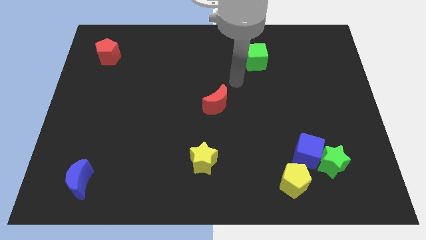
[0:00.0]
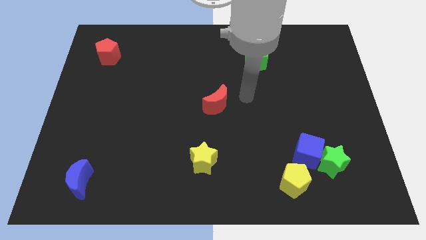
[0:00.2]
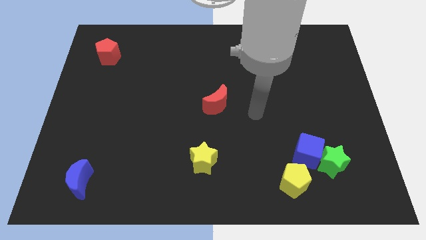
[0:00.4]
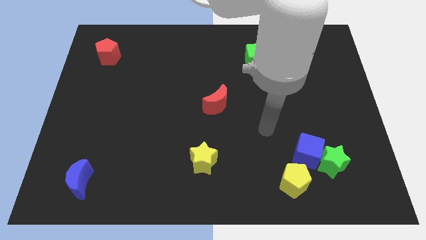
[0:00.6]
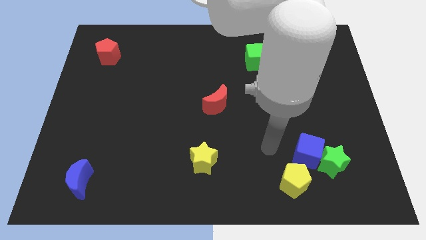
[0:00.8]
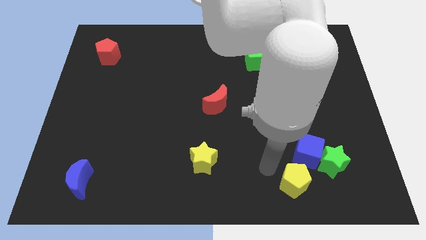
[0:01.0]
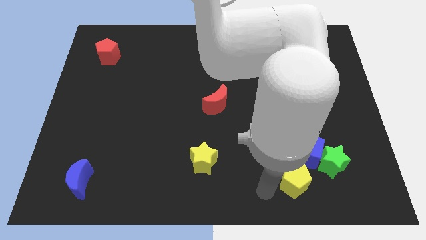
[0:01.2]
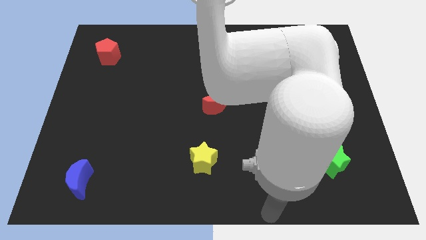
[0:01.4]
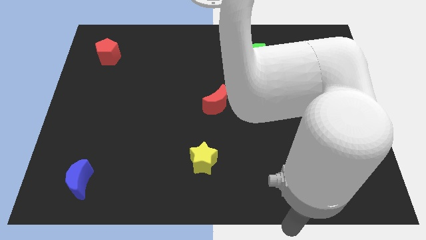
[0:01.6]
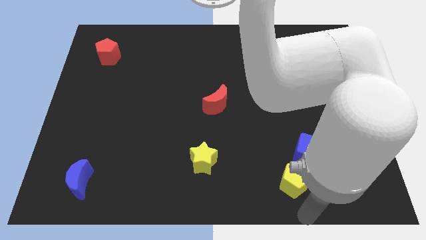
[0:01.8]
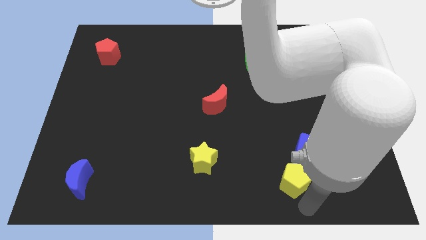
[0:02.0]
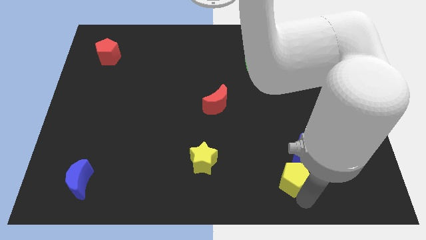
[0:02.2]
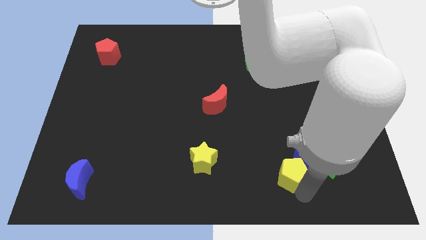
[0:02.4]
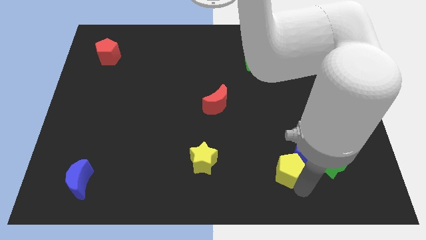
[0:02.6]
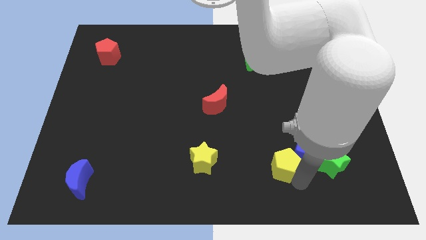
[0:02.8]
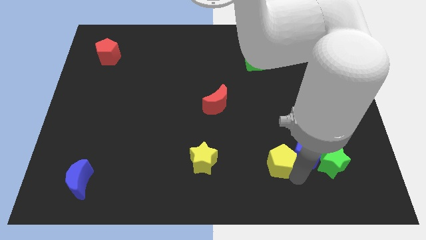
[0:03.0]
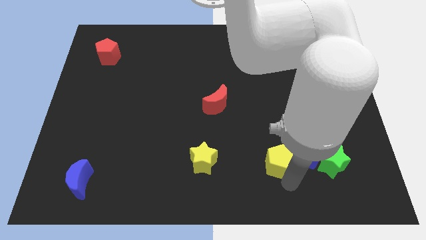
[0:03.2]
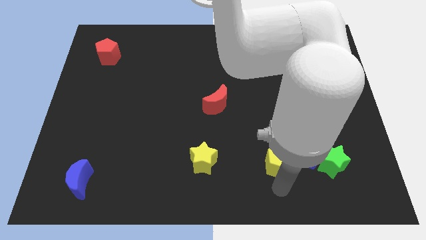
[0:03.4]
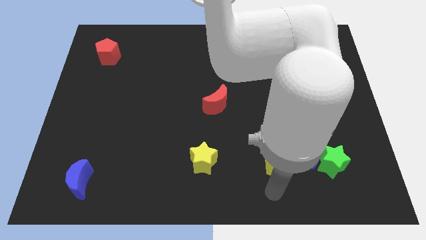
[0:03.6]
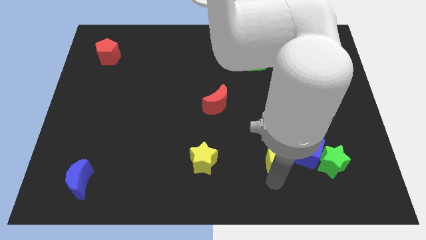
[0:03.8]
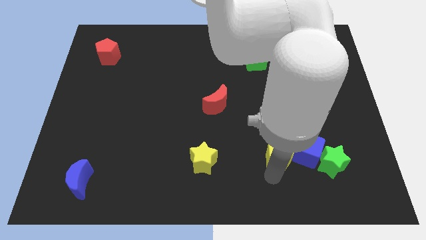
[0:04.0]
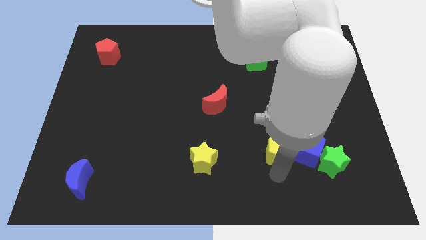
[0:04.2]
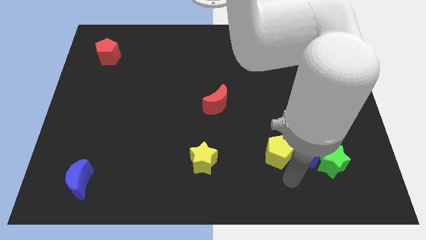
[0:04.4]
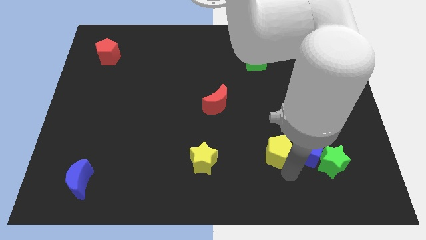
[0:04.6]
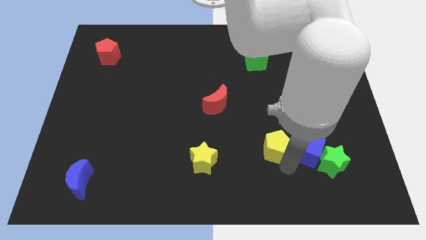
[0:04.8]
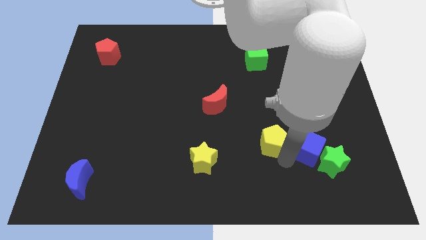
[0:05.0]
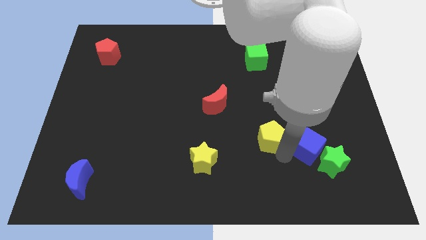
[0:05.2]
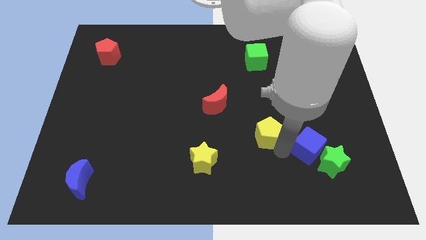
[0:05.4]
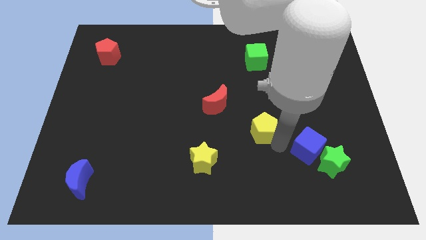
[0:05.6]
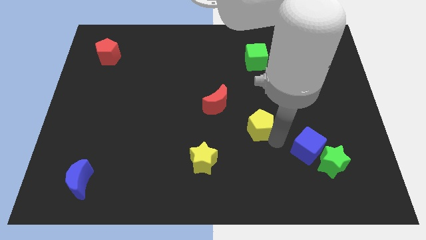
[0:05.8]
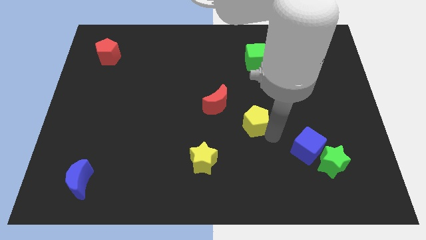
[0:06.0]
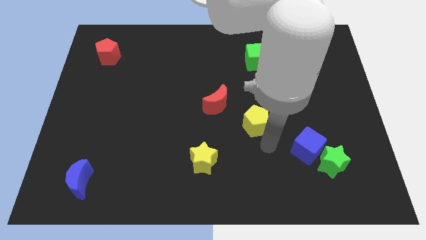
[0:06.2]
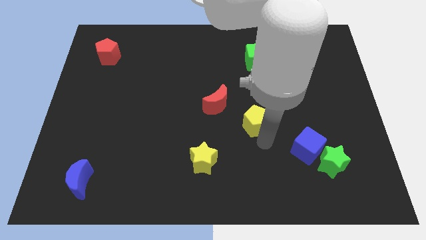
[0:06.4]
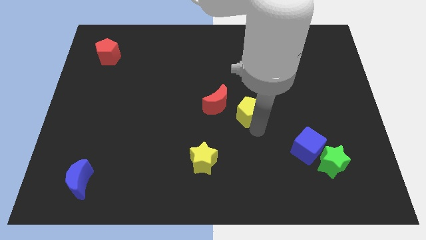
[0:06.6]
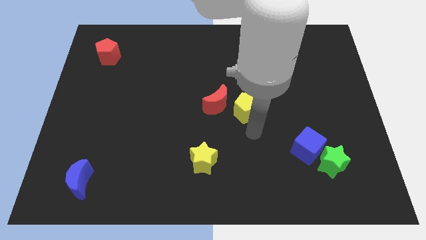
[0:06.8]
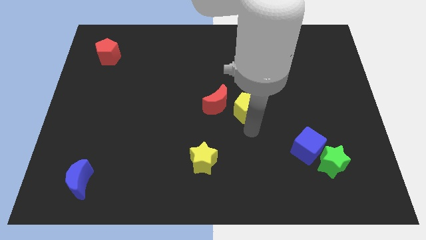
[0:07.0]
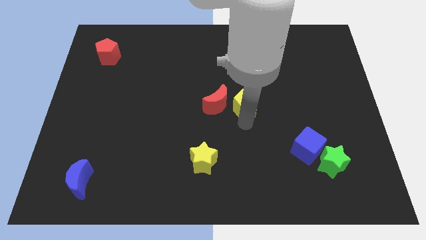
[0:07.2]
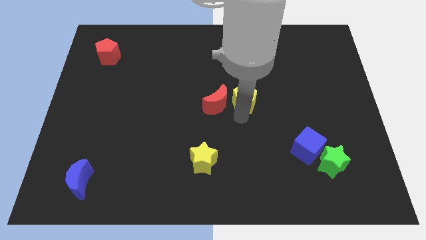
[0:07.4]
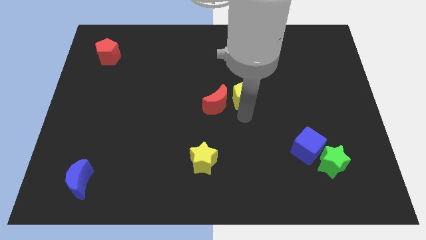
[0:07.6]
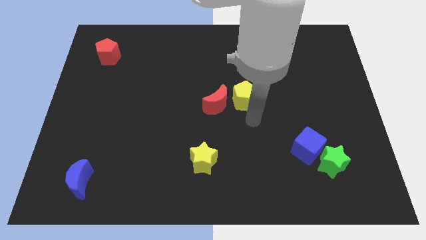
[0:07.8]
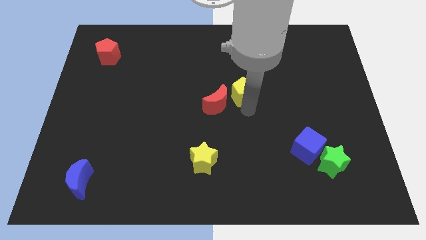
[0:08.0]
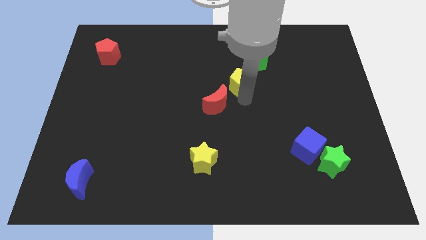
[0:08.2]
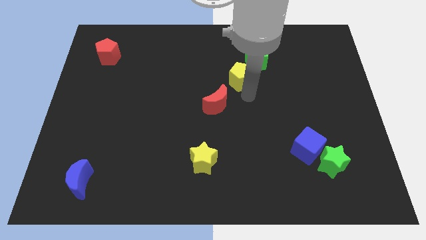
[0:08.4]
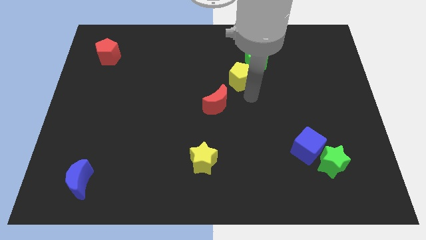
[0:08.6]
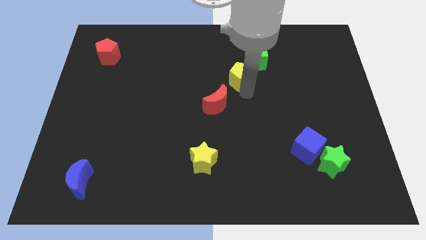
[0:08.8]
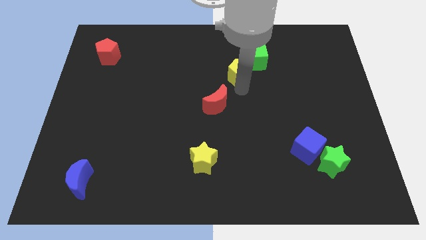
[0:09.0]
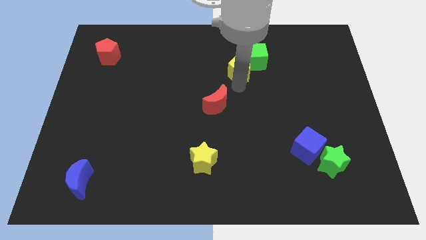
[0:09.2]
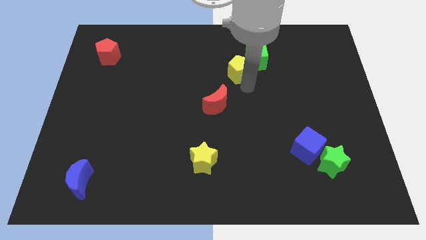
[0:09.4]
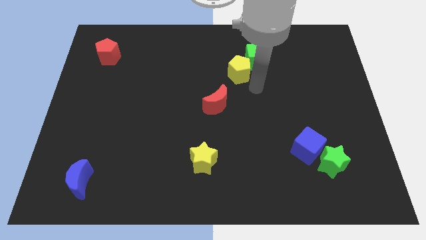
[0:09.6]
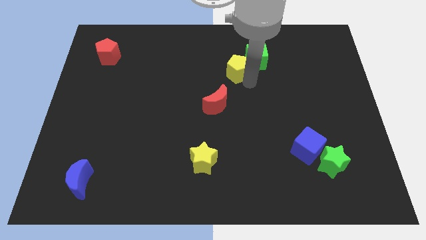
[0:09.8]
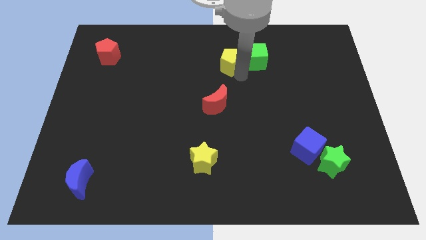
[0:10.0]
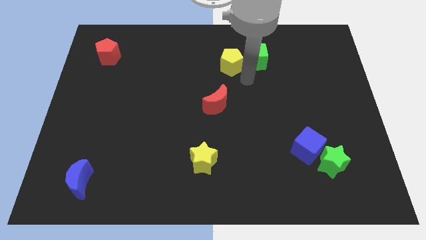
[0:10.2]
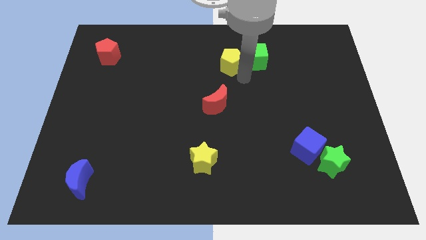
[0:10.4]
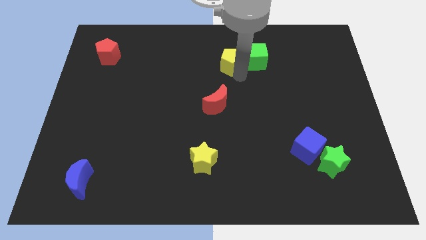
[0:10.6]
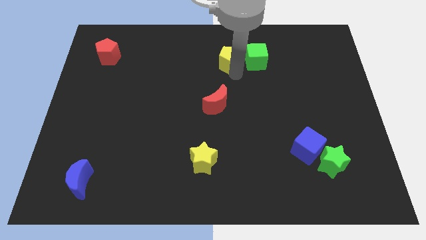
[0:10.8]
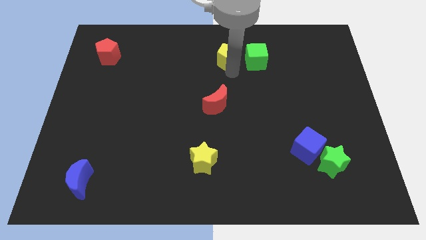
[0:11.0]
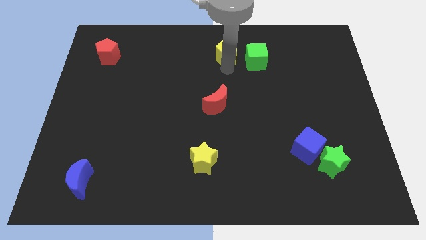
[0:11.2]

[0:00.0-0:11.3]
move the yellow pentagon to the top
